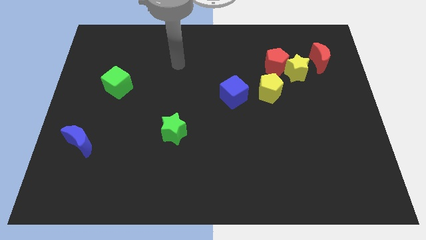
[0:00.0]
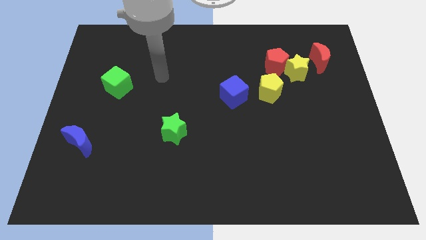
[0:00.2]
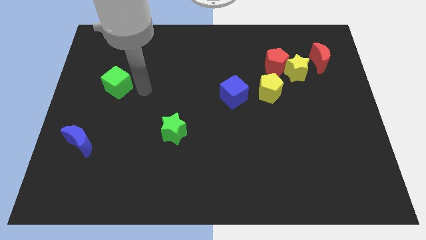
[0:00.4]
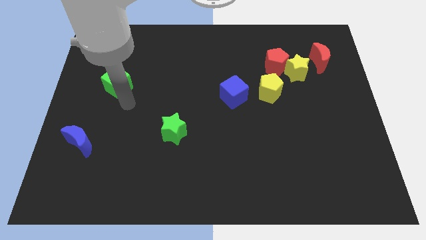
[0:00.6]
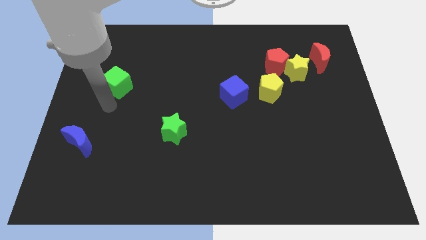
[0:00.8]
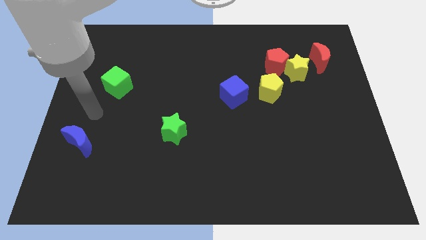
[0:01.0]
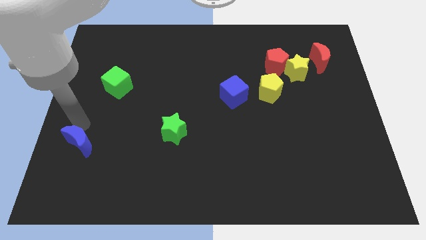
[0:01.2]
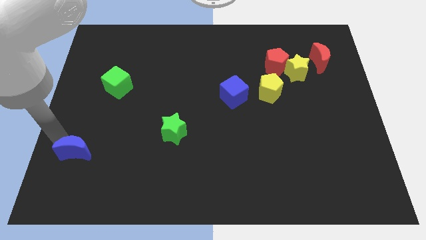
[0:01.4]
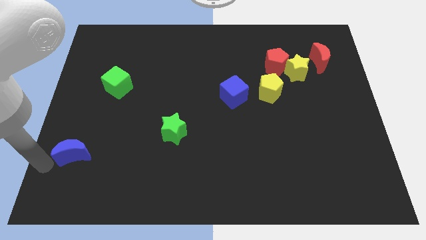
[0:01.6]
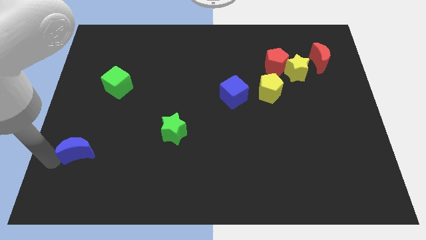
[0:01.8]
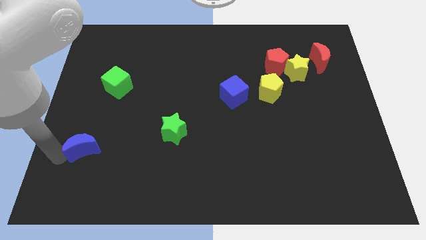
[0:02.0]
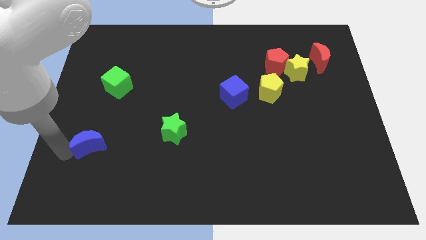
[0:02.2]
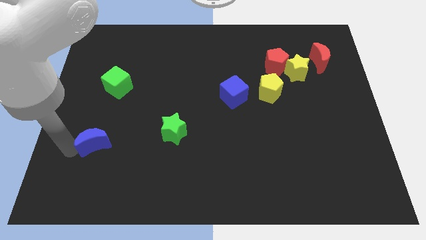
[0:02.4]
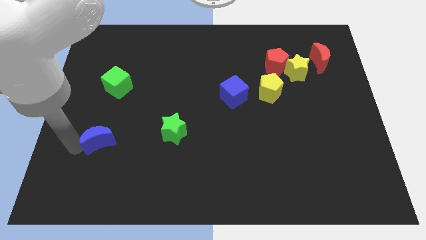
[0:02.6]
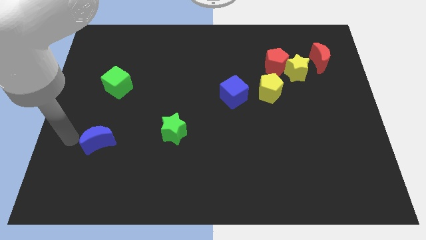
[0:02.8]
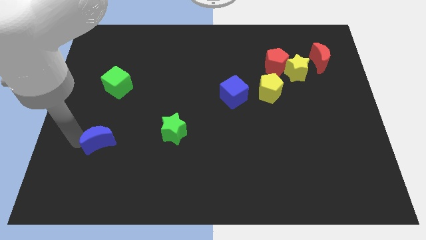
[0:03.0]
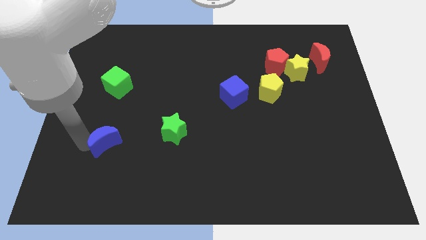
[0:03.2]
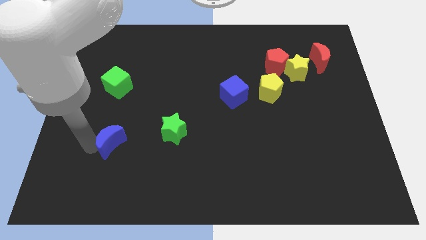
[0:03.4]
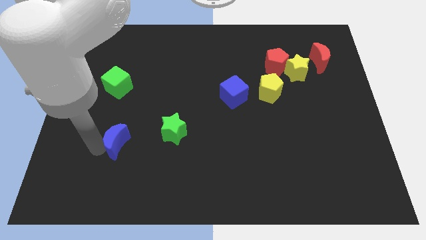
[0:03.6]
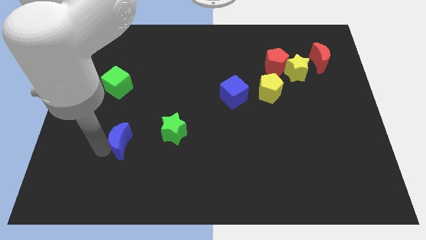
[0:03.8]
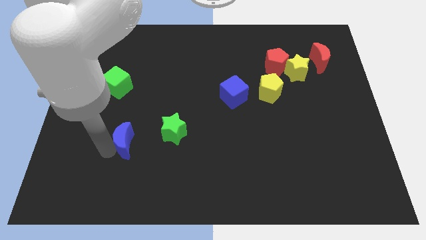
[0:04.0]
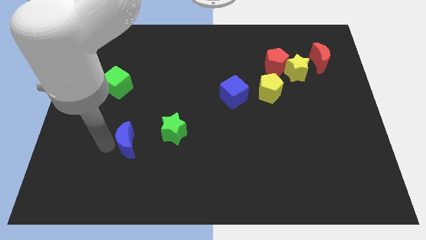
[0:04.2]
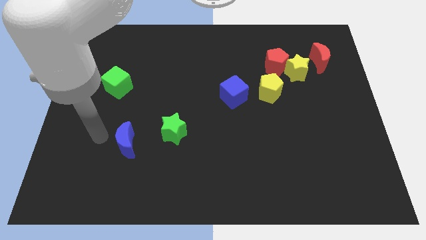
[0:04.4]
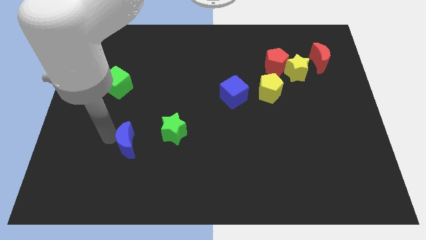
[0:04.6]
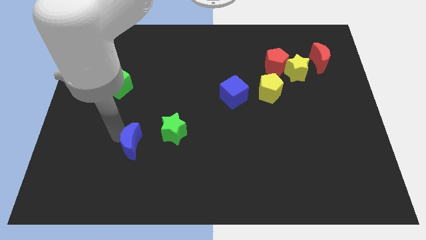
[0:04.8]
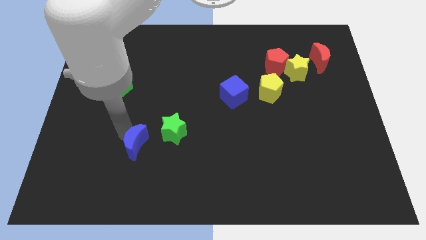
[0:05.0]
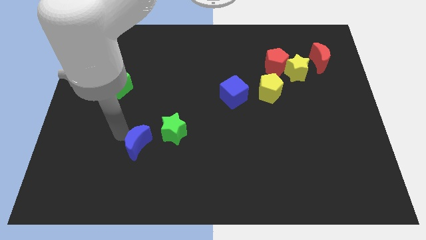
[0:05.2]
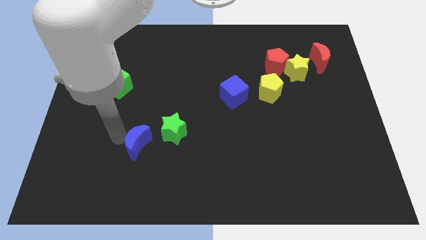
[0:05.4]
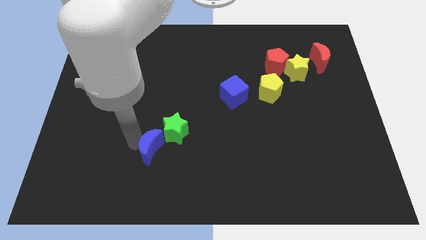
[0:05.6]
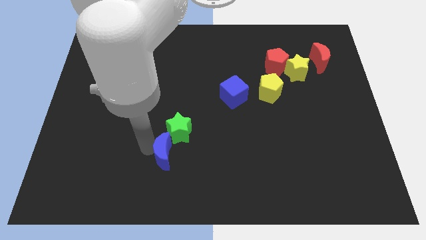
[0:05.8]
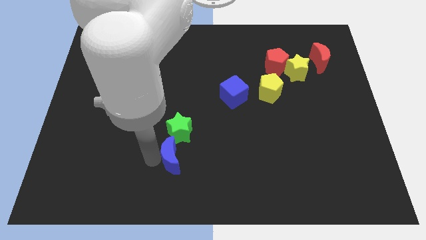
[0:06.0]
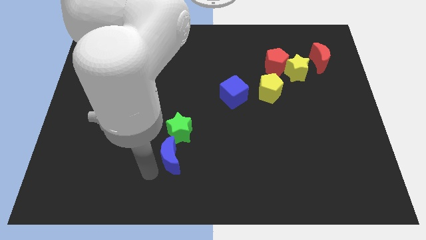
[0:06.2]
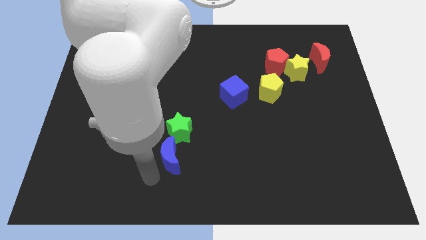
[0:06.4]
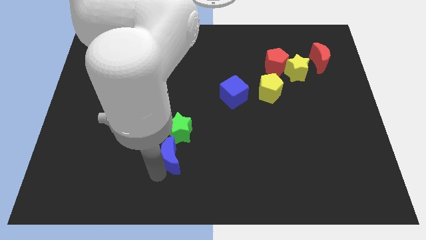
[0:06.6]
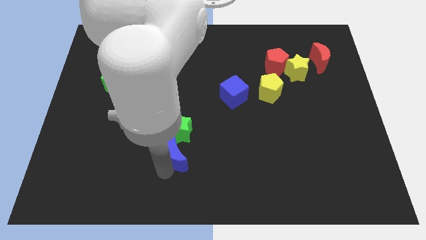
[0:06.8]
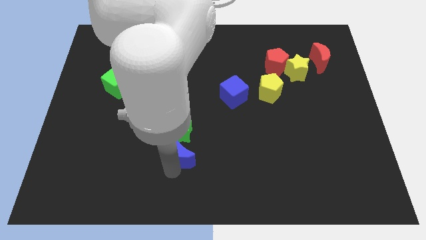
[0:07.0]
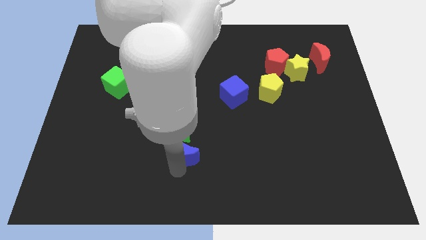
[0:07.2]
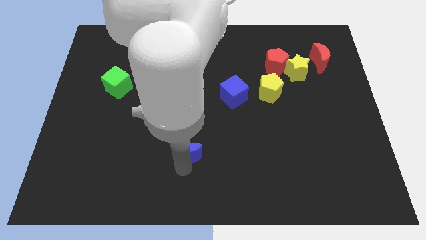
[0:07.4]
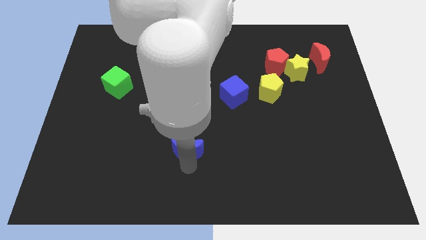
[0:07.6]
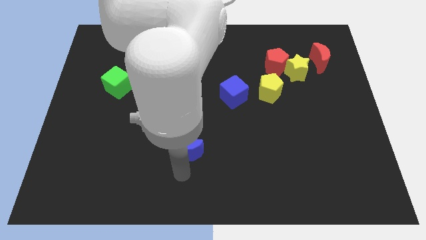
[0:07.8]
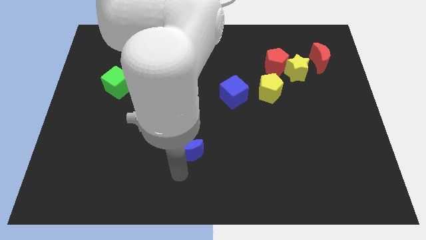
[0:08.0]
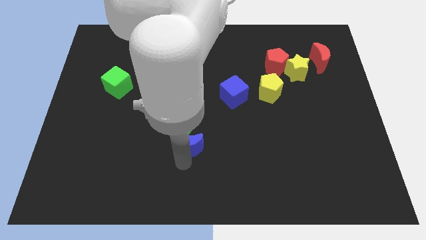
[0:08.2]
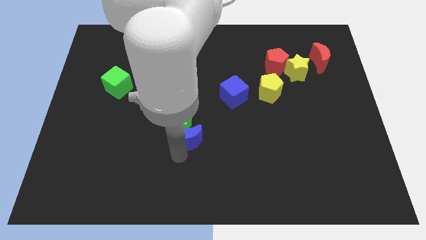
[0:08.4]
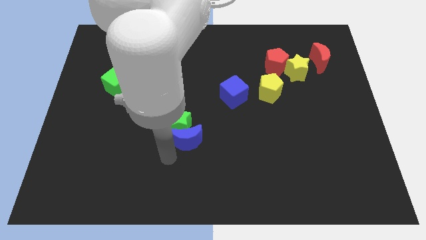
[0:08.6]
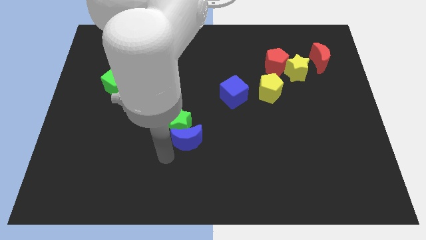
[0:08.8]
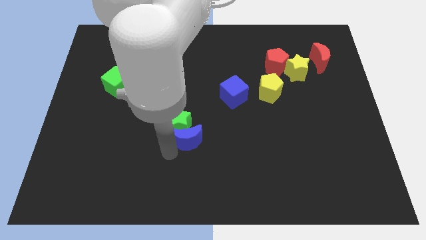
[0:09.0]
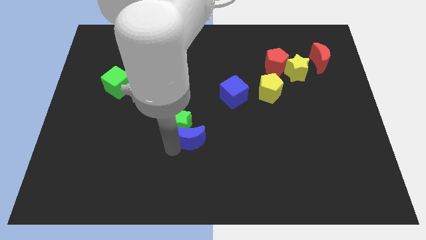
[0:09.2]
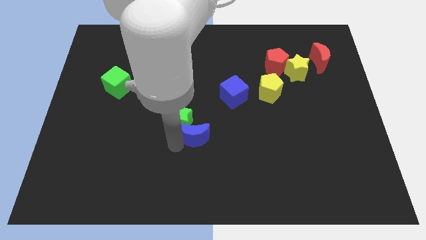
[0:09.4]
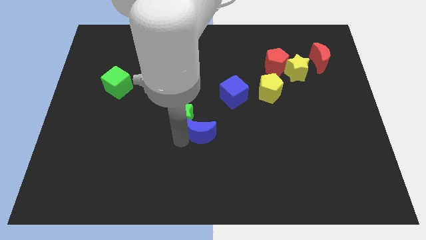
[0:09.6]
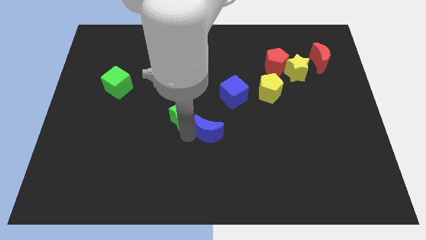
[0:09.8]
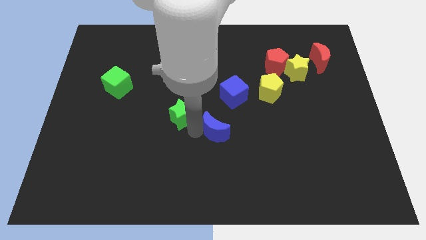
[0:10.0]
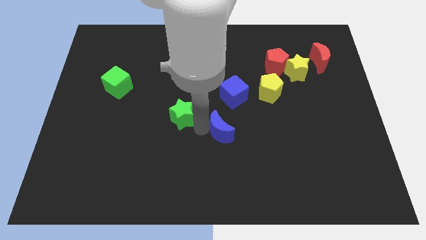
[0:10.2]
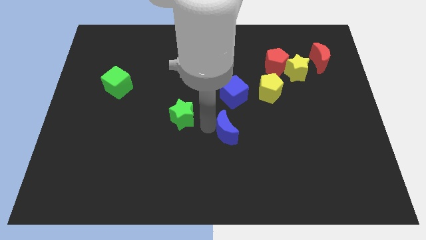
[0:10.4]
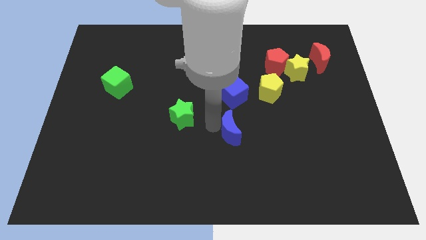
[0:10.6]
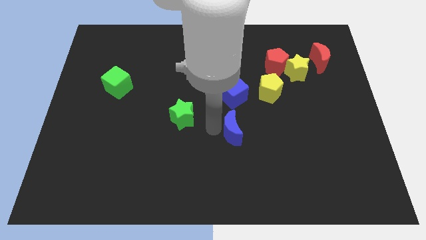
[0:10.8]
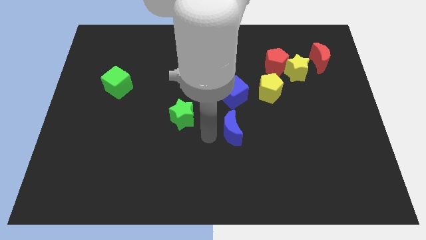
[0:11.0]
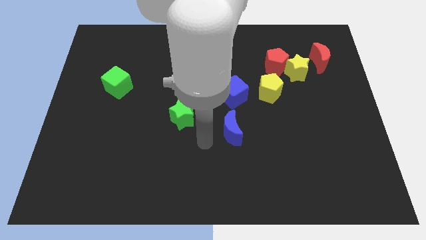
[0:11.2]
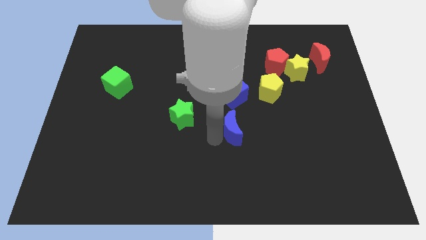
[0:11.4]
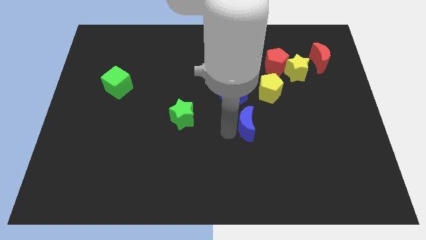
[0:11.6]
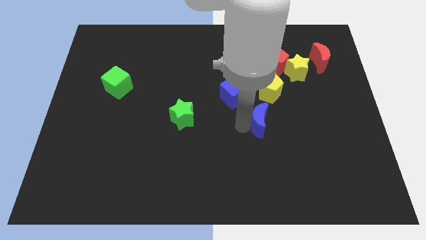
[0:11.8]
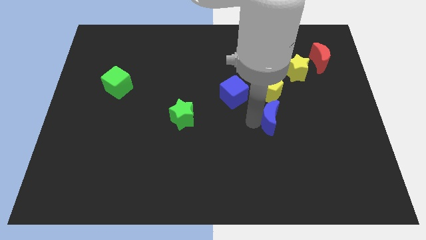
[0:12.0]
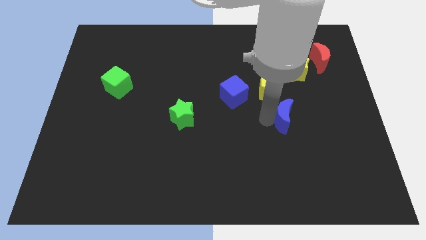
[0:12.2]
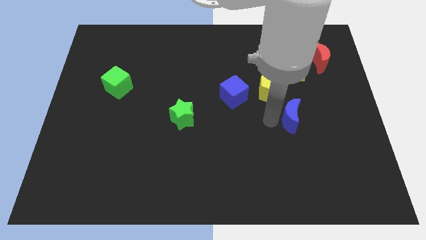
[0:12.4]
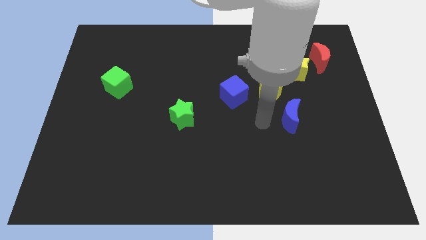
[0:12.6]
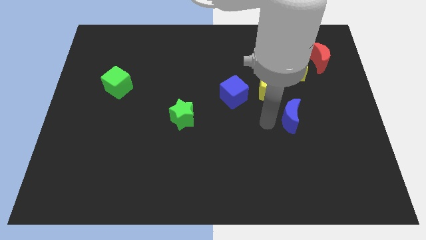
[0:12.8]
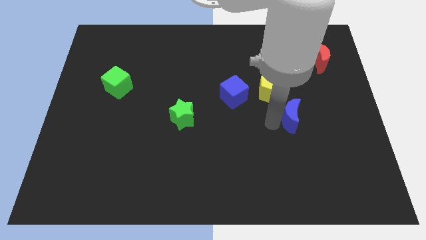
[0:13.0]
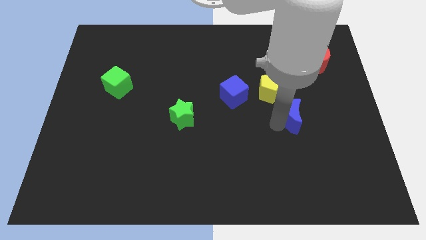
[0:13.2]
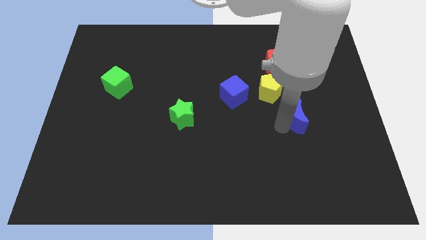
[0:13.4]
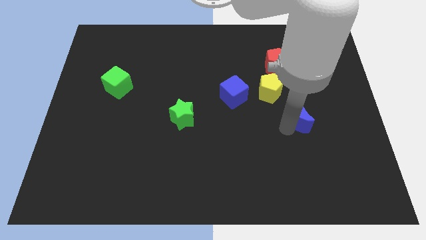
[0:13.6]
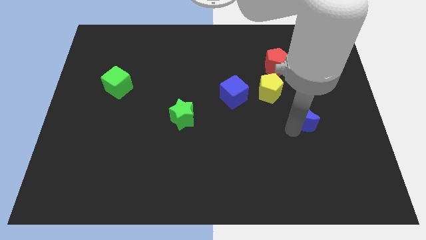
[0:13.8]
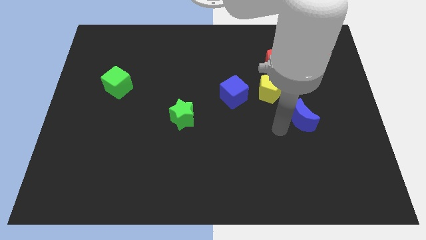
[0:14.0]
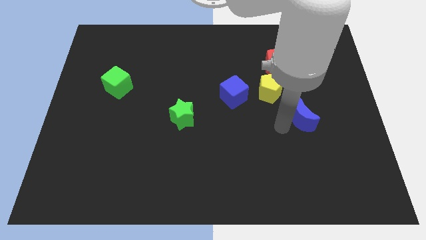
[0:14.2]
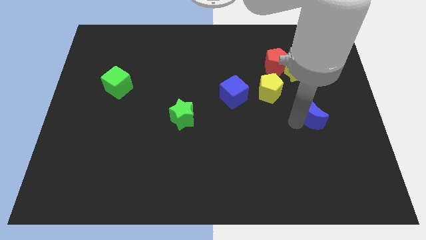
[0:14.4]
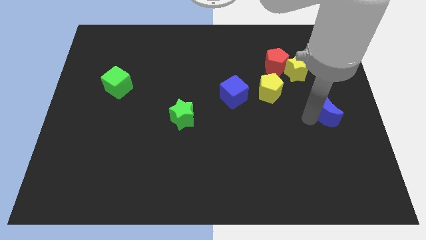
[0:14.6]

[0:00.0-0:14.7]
put the blue moon to the right side

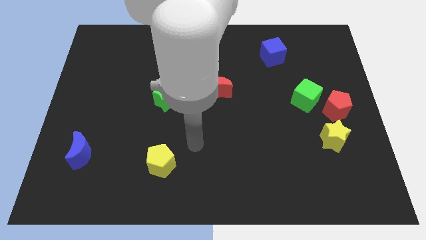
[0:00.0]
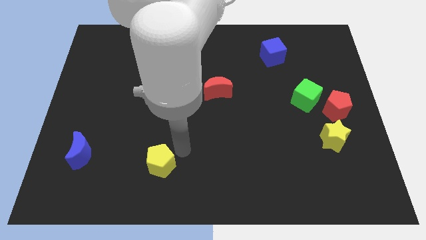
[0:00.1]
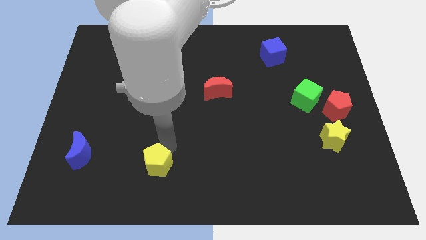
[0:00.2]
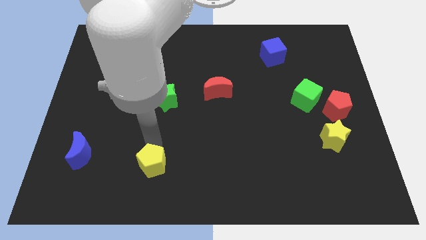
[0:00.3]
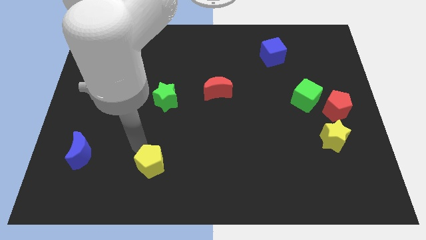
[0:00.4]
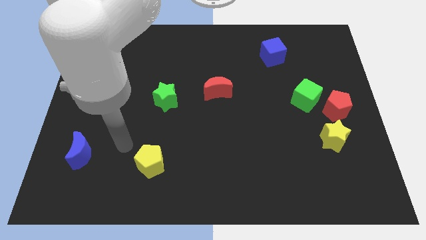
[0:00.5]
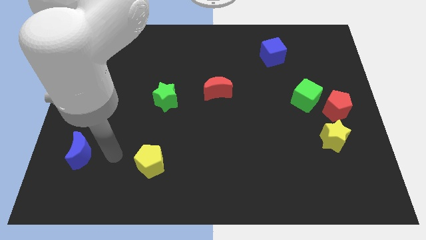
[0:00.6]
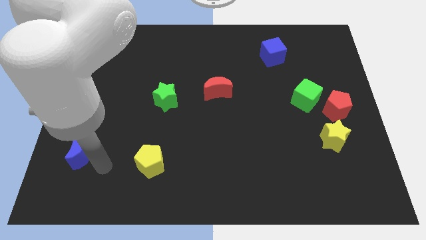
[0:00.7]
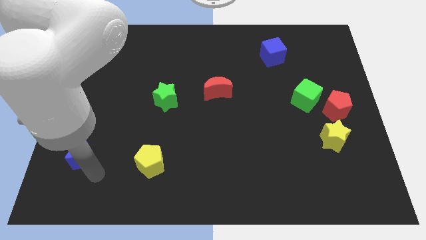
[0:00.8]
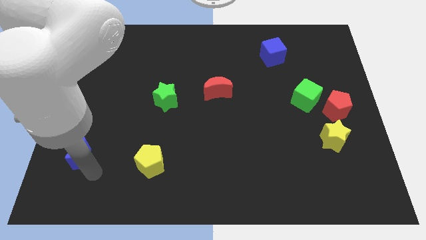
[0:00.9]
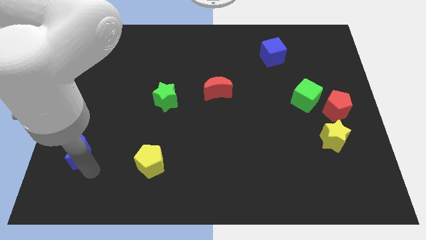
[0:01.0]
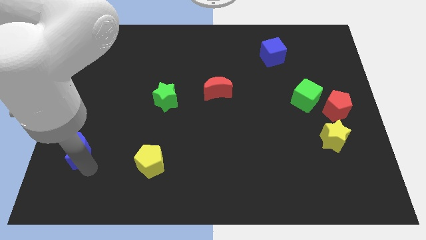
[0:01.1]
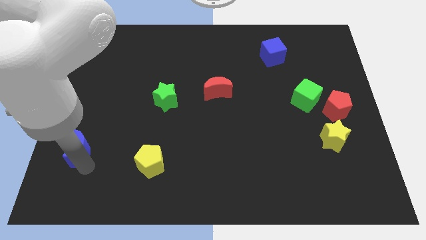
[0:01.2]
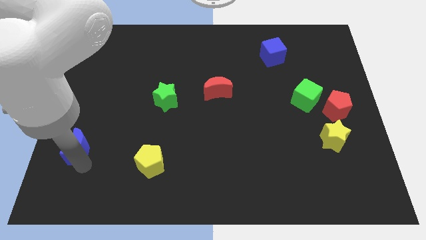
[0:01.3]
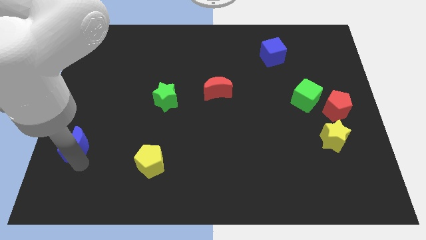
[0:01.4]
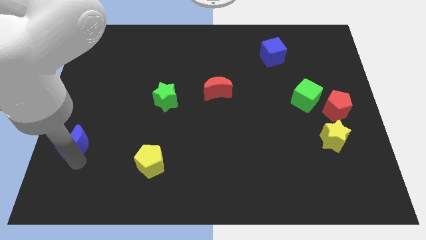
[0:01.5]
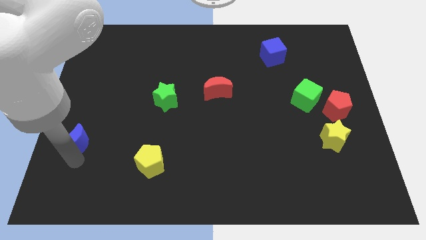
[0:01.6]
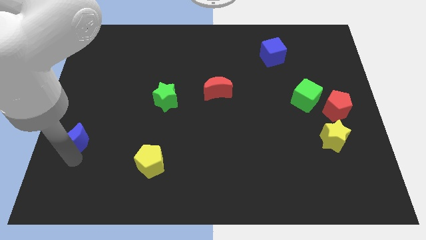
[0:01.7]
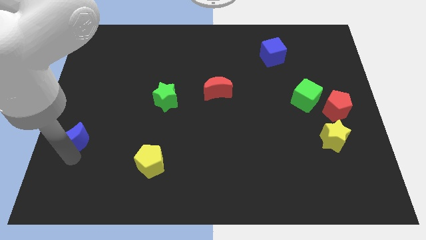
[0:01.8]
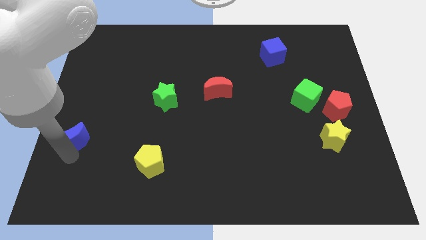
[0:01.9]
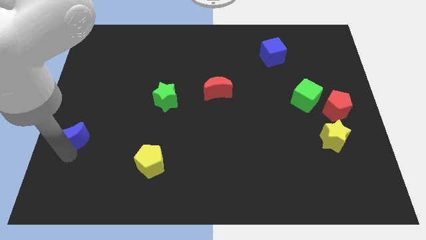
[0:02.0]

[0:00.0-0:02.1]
put the blue moon to the left side
